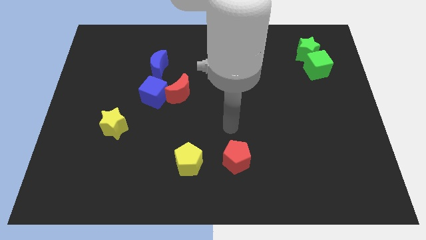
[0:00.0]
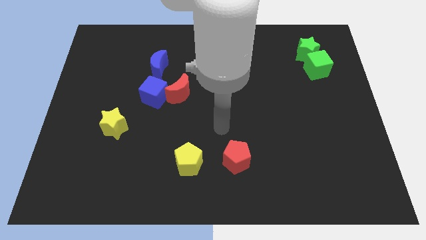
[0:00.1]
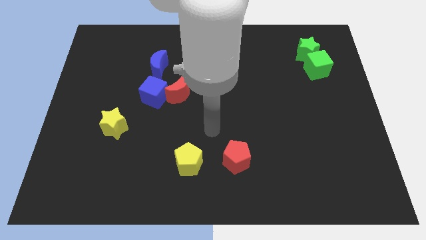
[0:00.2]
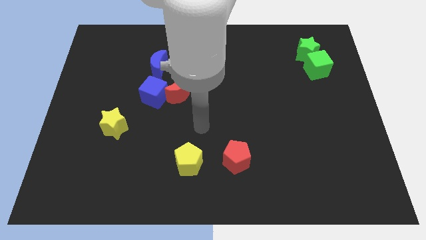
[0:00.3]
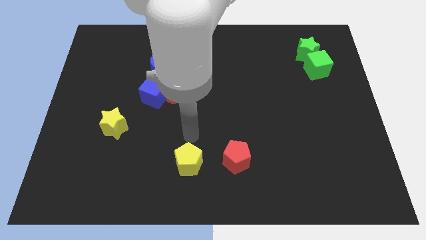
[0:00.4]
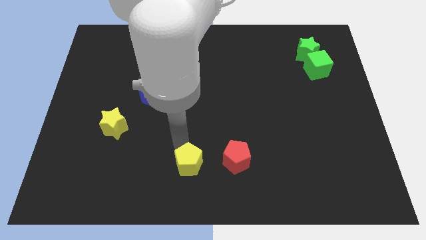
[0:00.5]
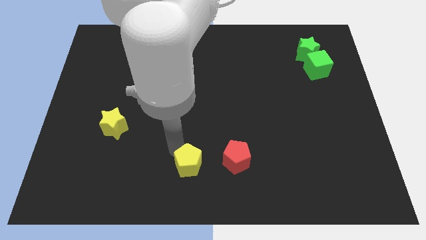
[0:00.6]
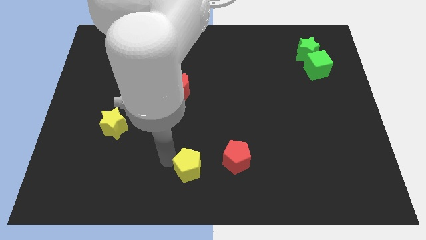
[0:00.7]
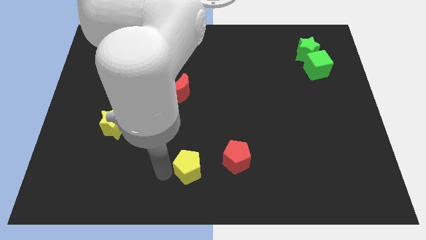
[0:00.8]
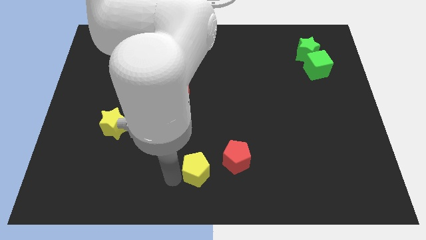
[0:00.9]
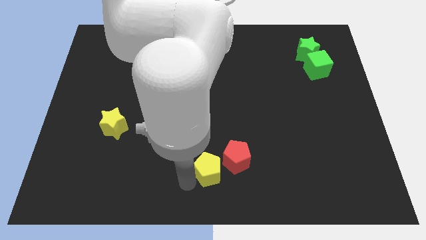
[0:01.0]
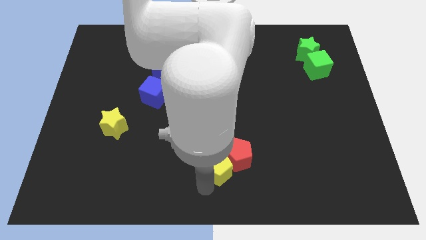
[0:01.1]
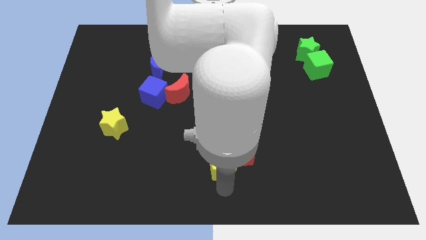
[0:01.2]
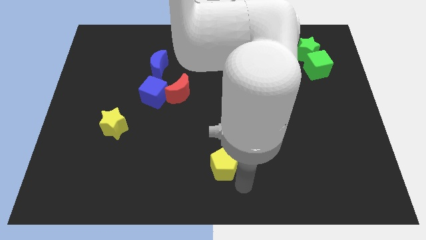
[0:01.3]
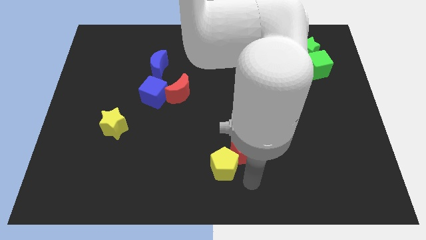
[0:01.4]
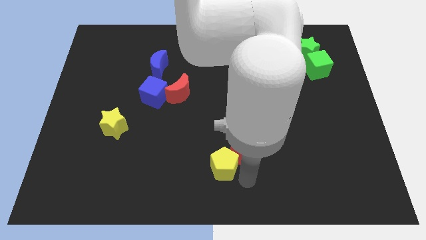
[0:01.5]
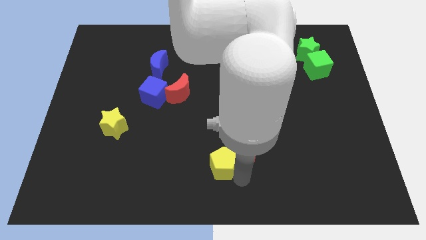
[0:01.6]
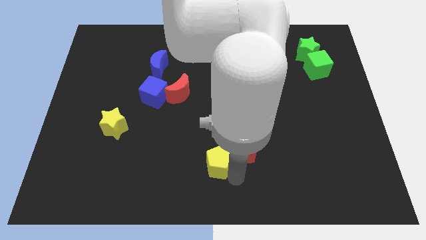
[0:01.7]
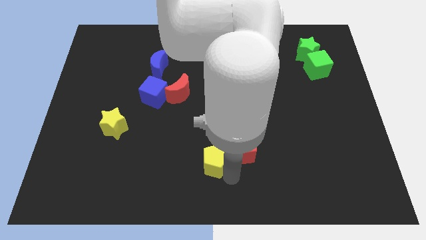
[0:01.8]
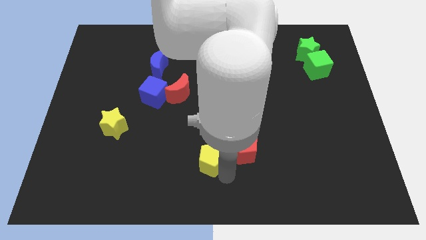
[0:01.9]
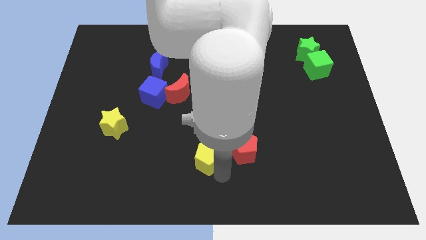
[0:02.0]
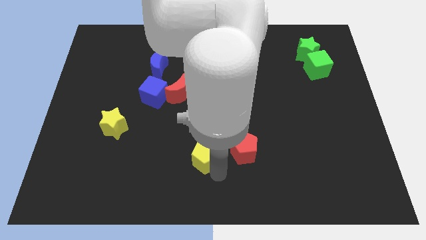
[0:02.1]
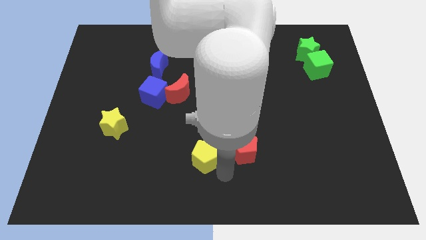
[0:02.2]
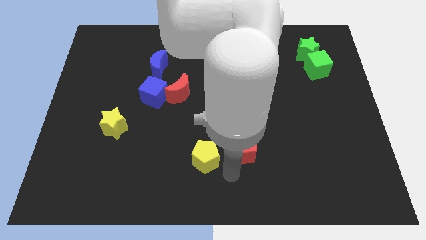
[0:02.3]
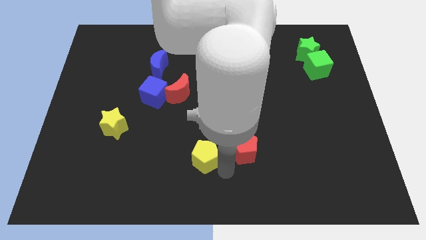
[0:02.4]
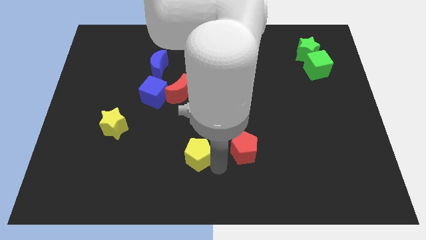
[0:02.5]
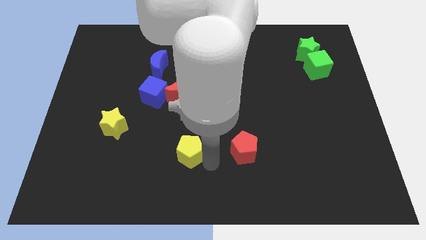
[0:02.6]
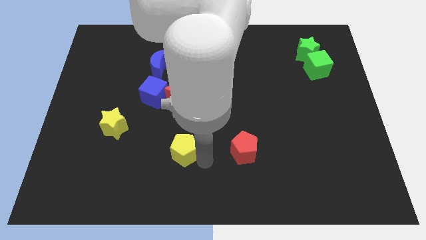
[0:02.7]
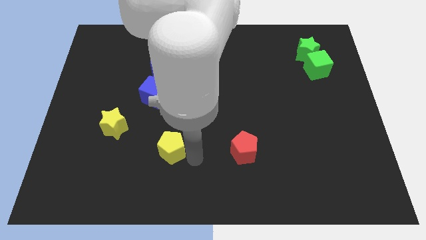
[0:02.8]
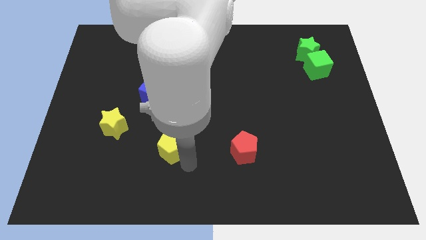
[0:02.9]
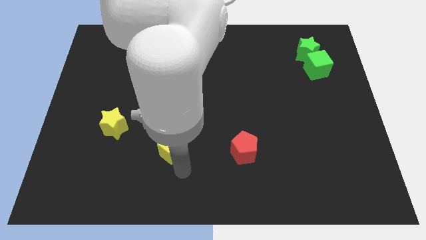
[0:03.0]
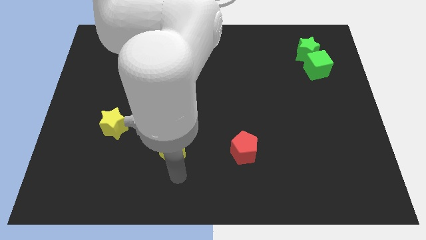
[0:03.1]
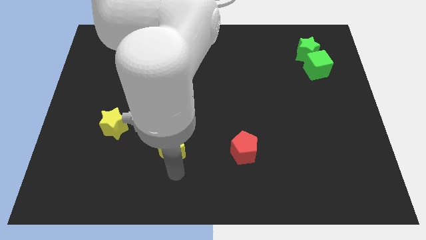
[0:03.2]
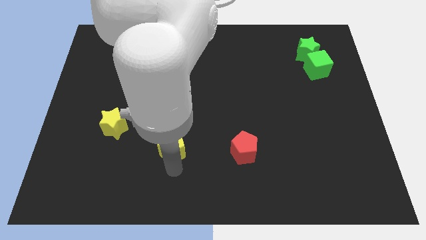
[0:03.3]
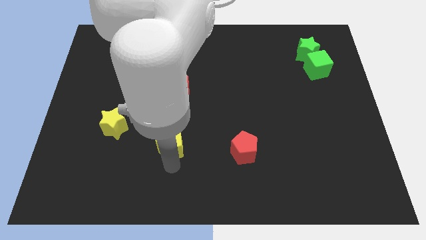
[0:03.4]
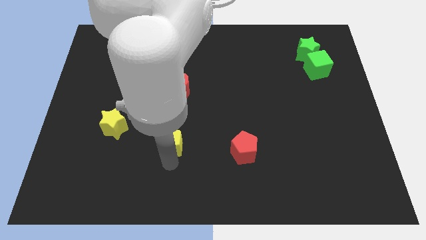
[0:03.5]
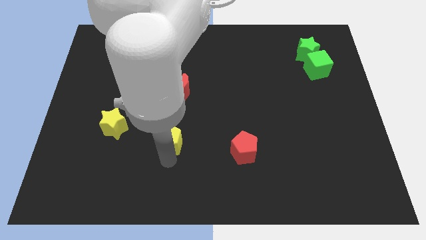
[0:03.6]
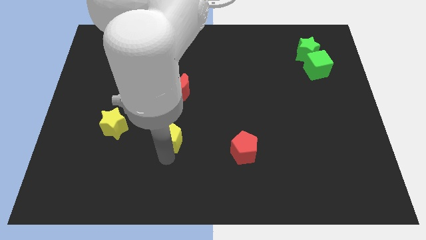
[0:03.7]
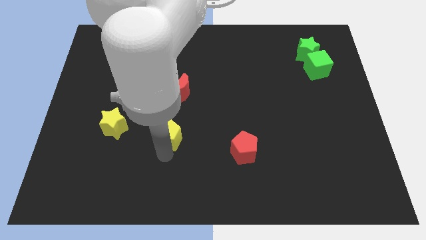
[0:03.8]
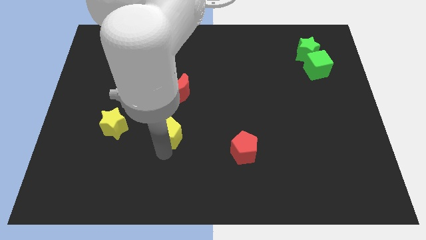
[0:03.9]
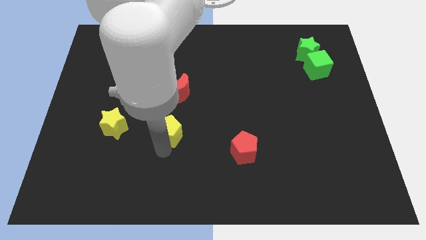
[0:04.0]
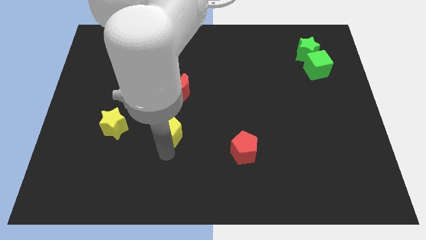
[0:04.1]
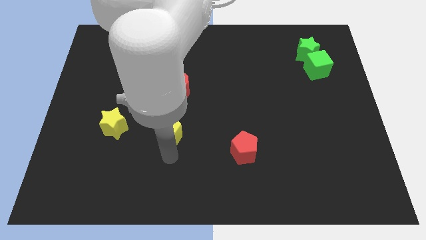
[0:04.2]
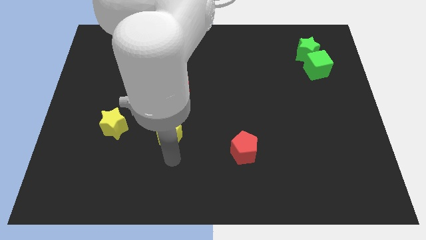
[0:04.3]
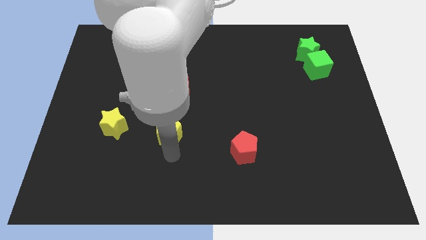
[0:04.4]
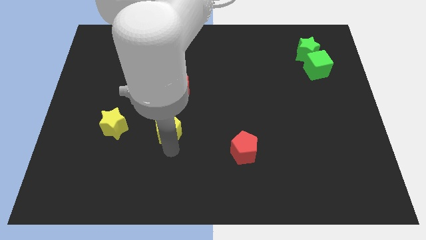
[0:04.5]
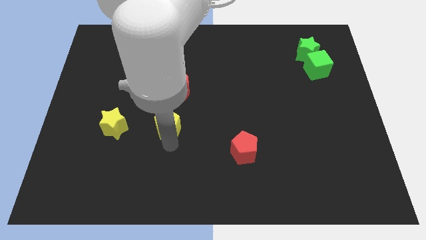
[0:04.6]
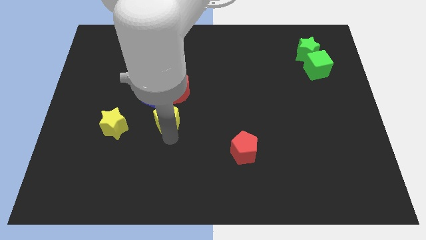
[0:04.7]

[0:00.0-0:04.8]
slide the yellow pentagon diagonally down and to the left of the red moon

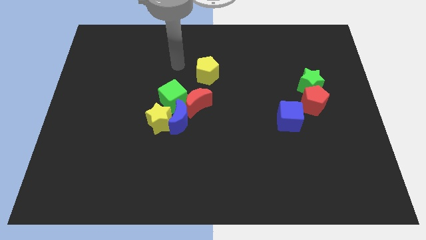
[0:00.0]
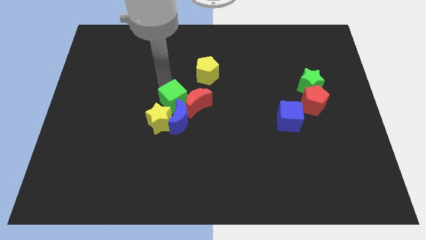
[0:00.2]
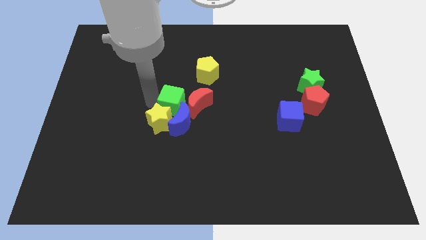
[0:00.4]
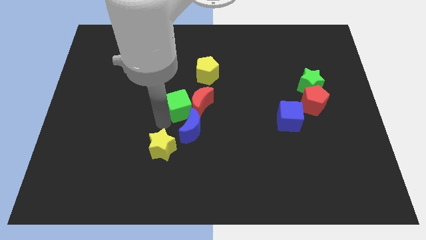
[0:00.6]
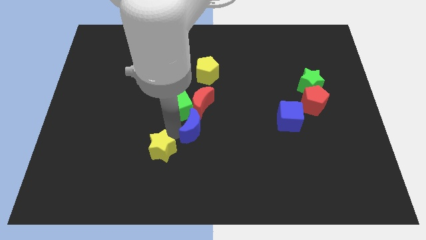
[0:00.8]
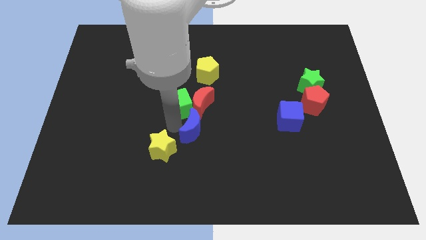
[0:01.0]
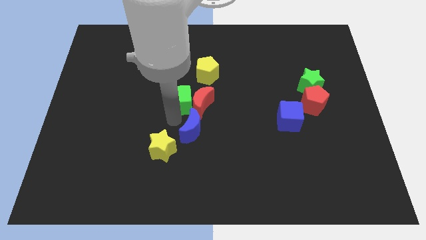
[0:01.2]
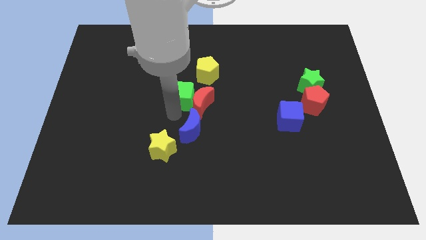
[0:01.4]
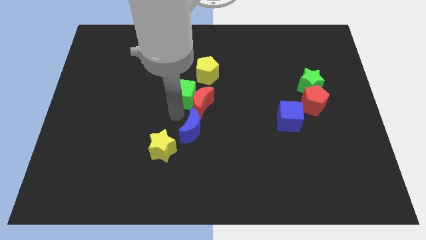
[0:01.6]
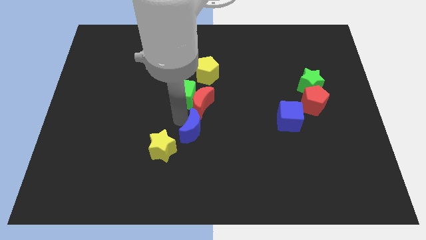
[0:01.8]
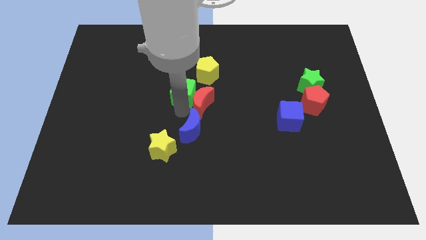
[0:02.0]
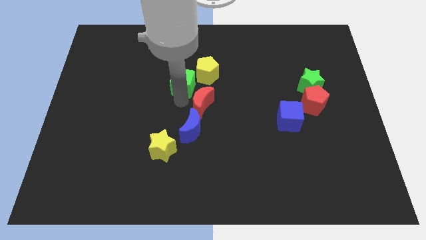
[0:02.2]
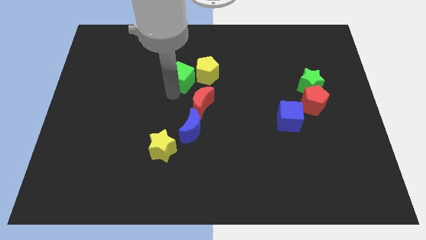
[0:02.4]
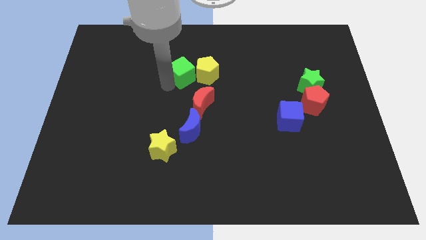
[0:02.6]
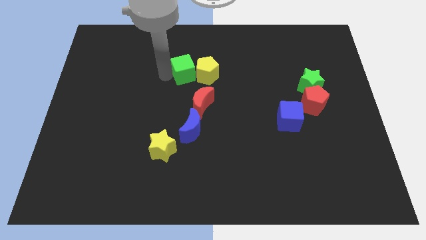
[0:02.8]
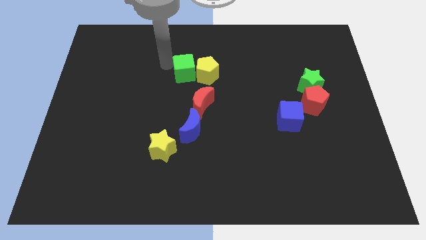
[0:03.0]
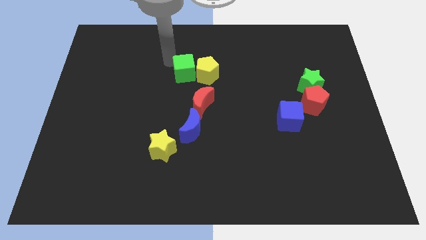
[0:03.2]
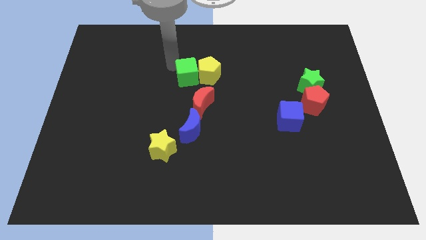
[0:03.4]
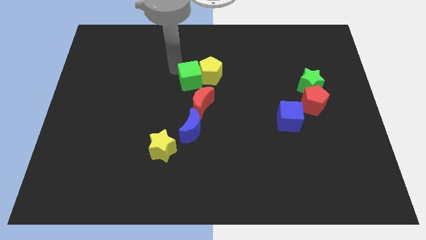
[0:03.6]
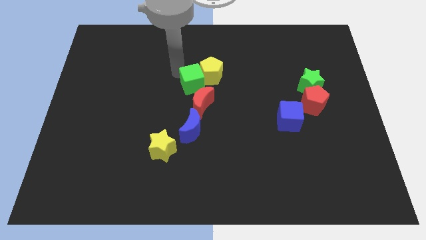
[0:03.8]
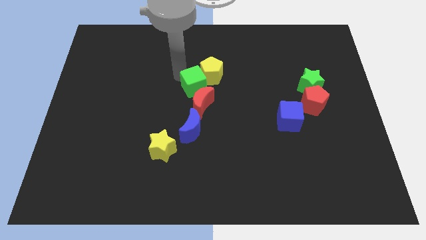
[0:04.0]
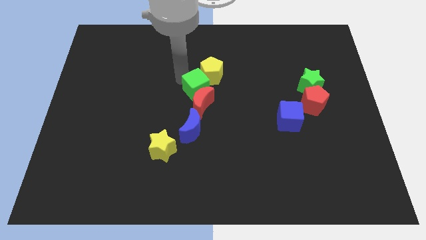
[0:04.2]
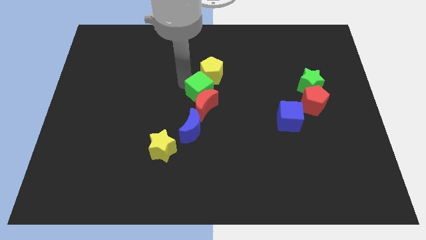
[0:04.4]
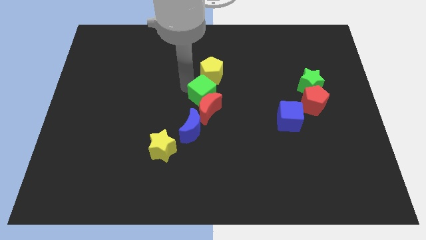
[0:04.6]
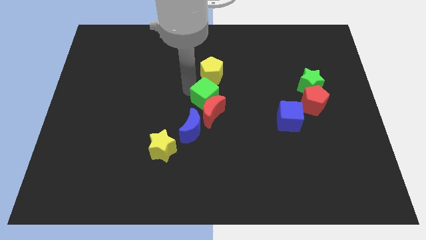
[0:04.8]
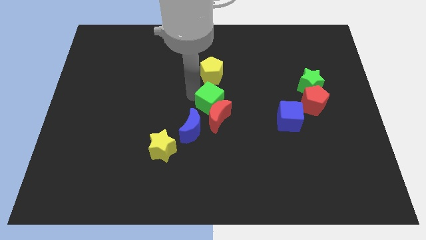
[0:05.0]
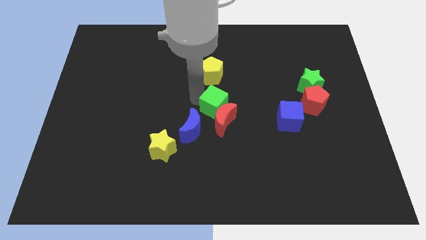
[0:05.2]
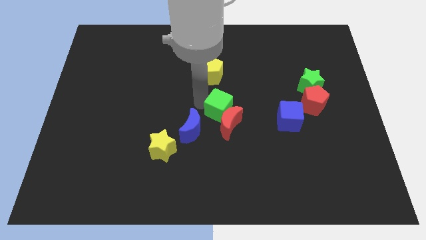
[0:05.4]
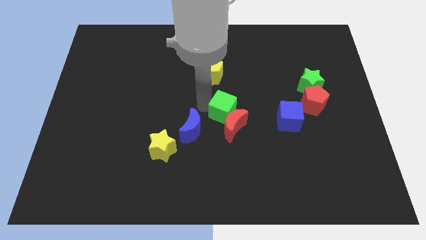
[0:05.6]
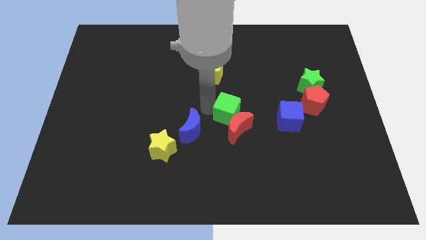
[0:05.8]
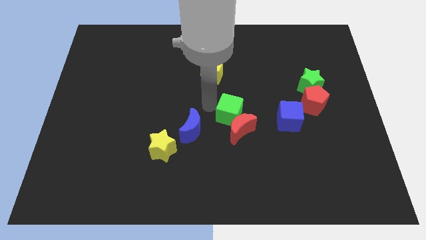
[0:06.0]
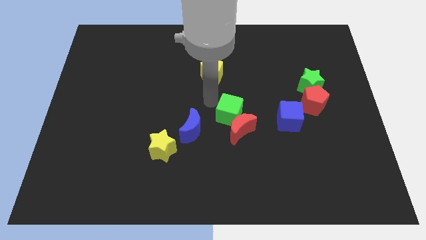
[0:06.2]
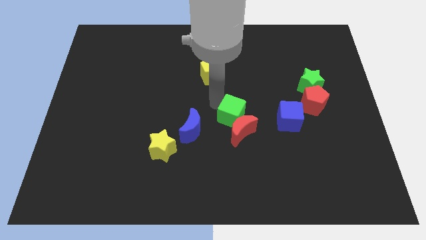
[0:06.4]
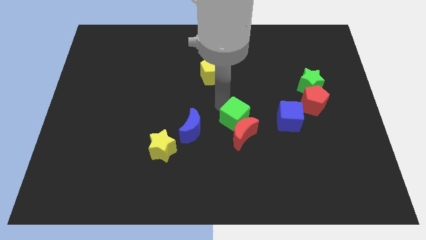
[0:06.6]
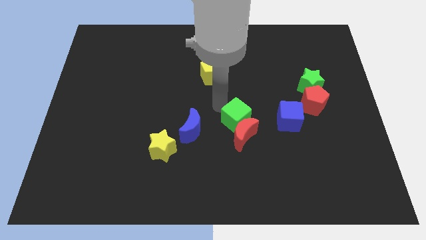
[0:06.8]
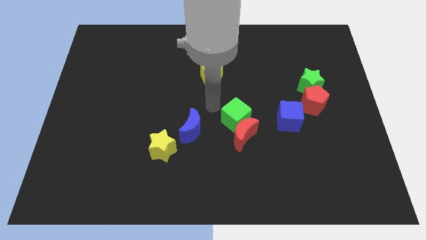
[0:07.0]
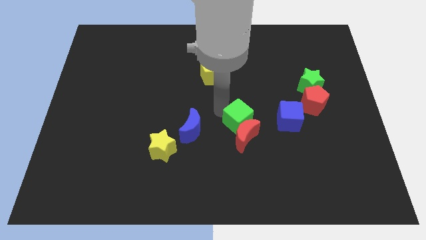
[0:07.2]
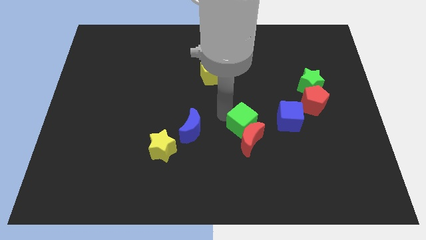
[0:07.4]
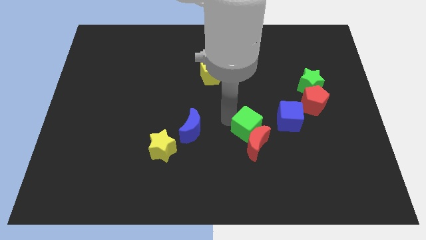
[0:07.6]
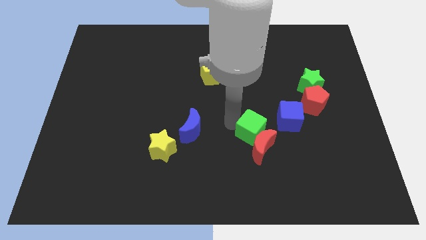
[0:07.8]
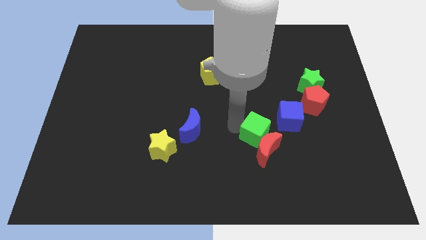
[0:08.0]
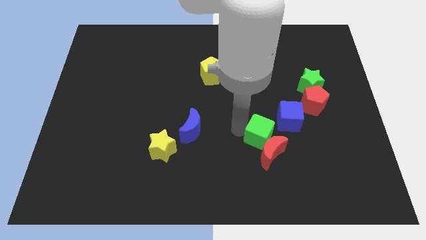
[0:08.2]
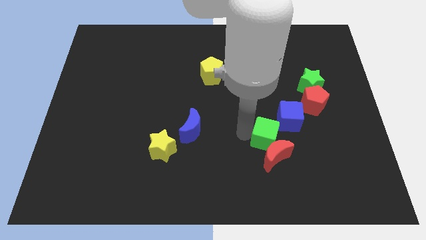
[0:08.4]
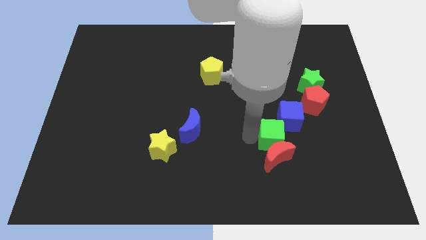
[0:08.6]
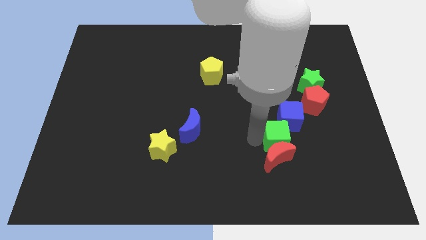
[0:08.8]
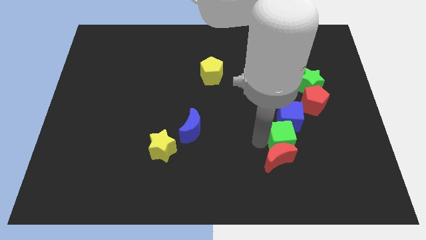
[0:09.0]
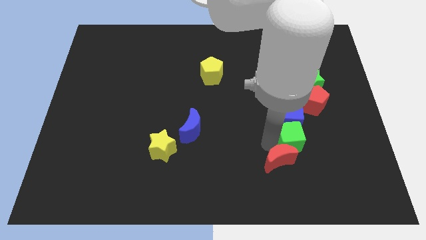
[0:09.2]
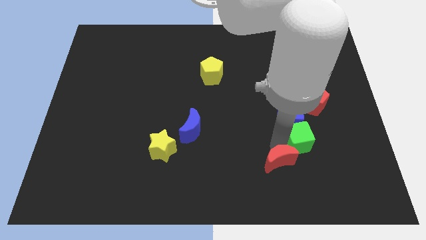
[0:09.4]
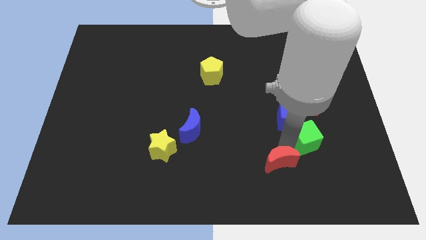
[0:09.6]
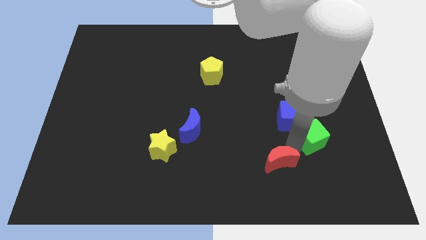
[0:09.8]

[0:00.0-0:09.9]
slide the green cube to the bottom side of the green star
